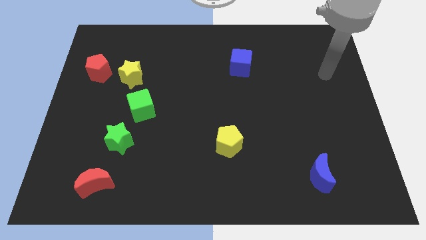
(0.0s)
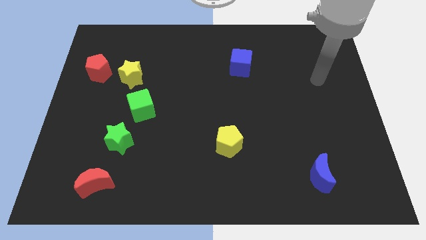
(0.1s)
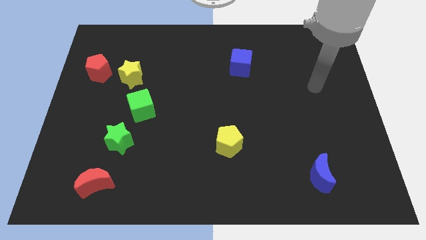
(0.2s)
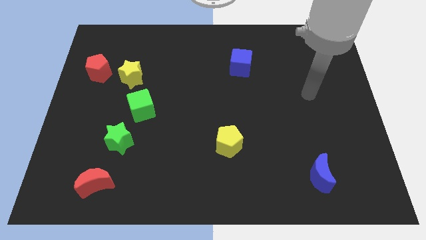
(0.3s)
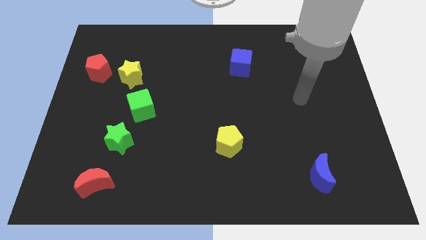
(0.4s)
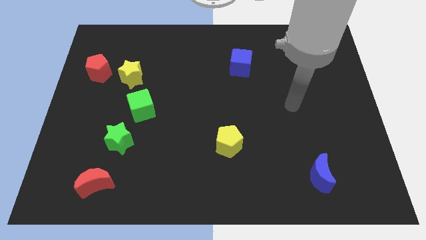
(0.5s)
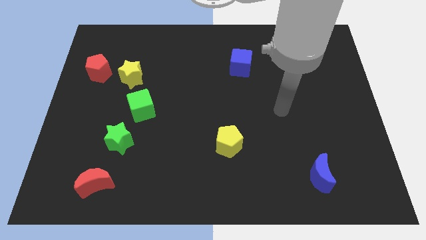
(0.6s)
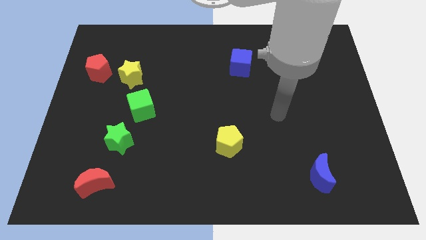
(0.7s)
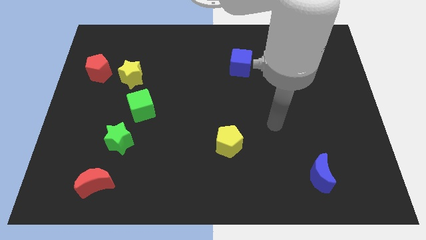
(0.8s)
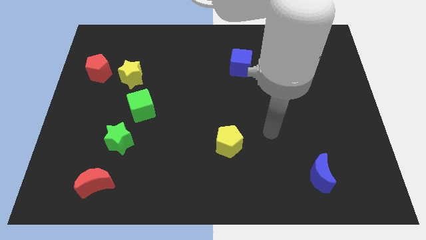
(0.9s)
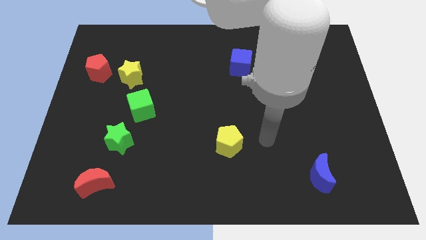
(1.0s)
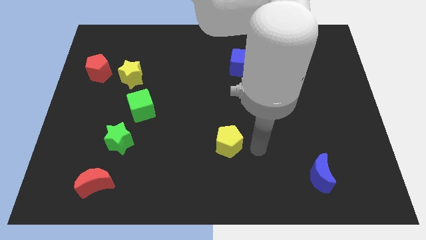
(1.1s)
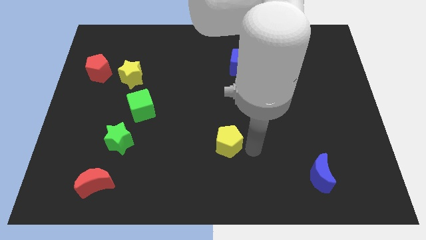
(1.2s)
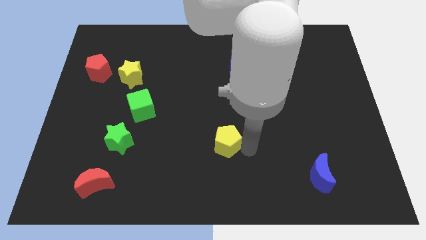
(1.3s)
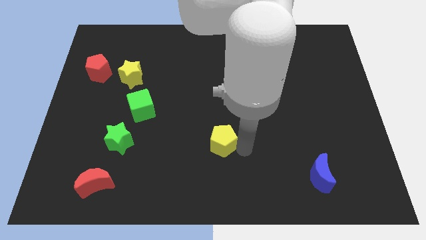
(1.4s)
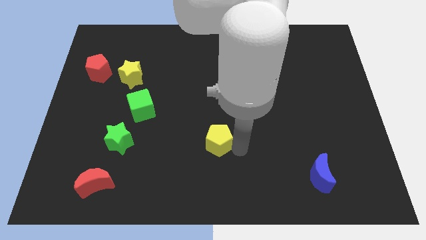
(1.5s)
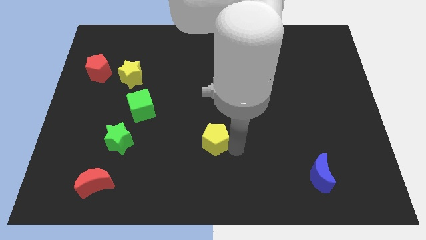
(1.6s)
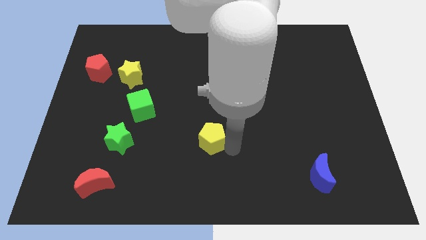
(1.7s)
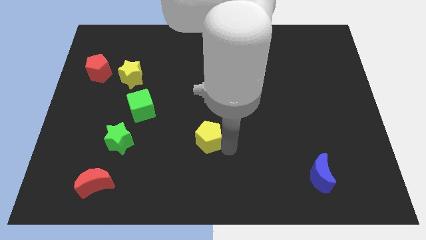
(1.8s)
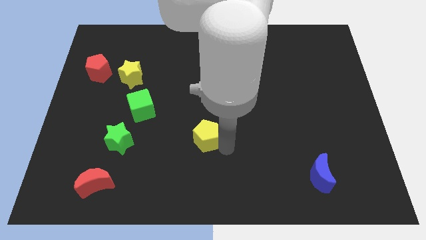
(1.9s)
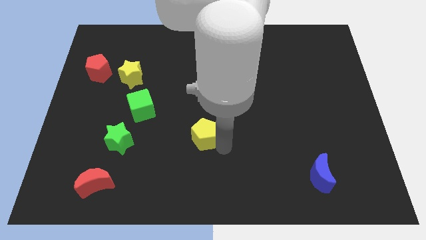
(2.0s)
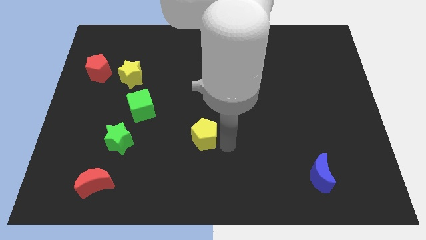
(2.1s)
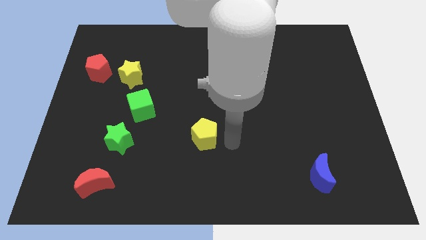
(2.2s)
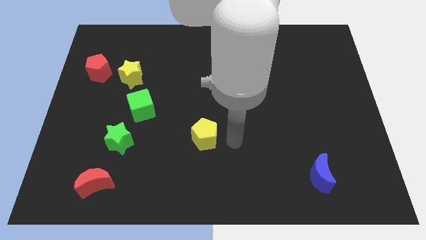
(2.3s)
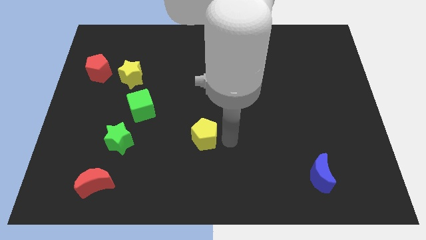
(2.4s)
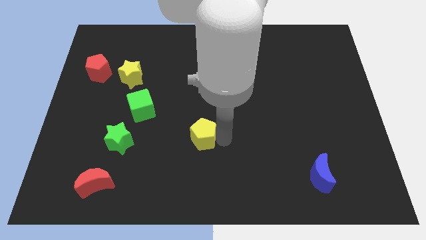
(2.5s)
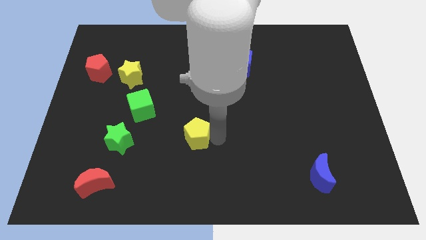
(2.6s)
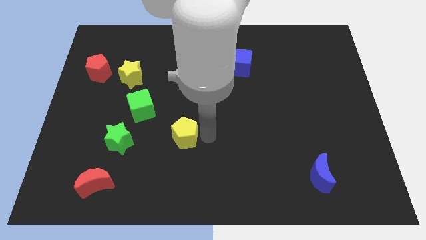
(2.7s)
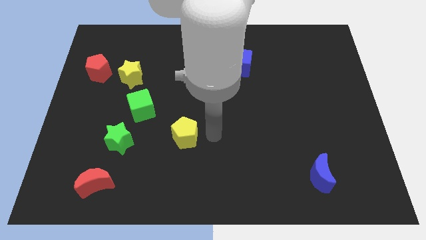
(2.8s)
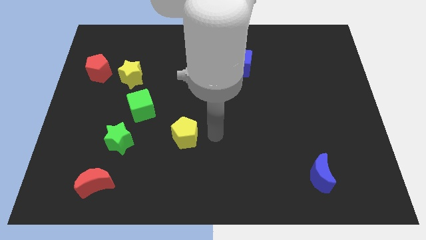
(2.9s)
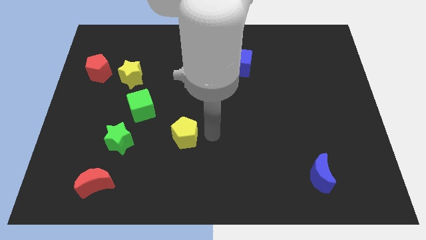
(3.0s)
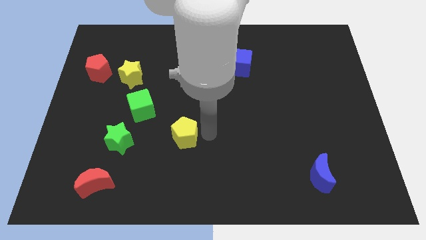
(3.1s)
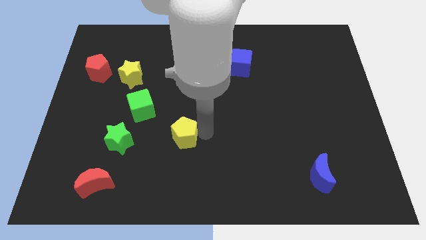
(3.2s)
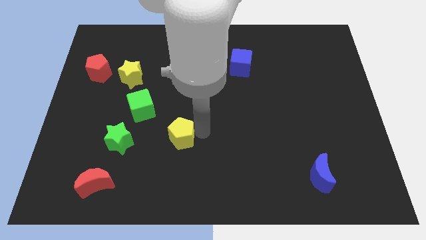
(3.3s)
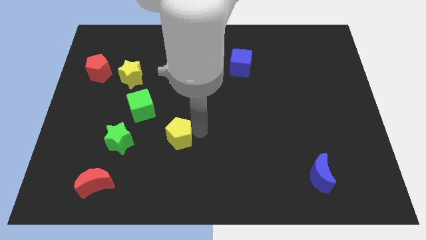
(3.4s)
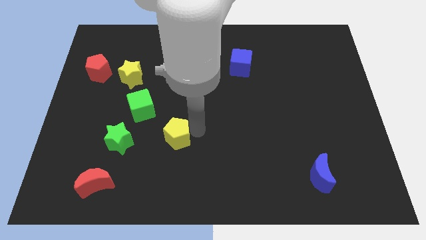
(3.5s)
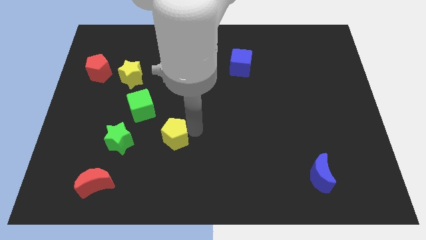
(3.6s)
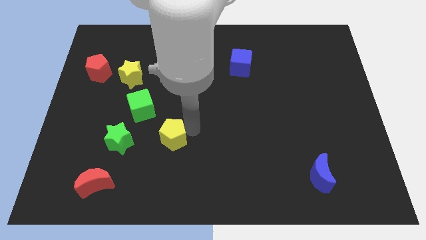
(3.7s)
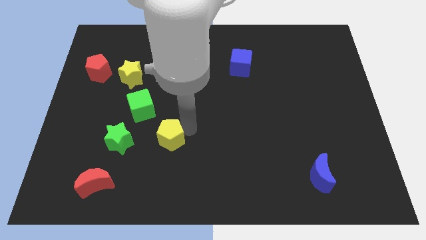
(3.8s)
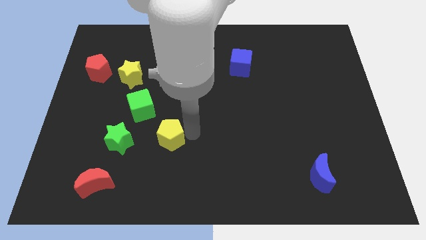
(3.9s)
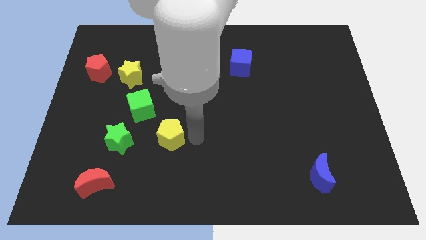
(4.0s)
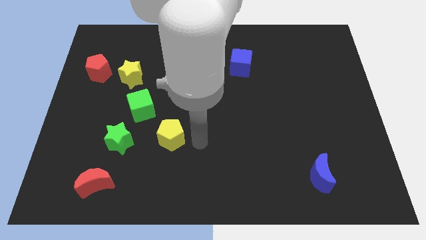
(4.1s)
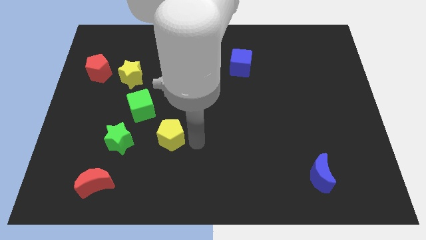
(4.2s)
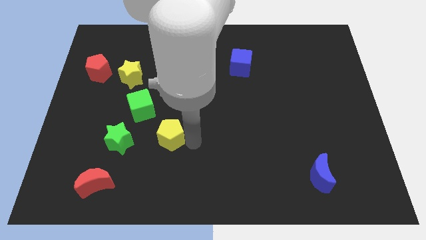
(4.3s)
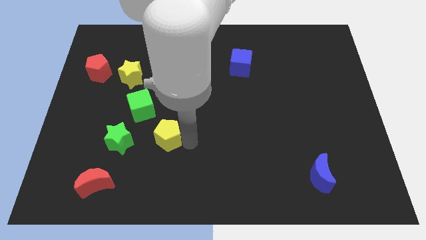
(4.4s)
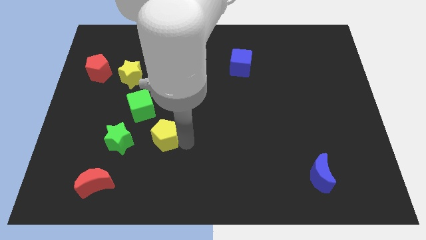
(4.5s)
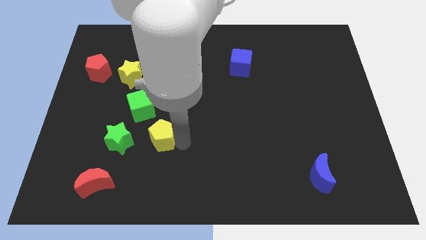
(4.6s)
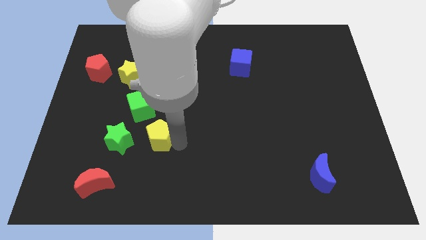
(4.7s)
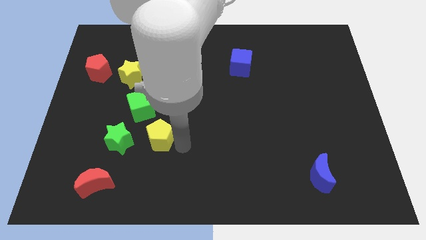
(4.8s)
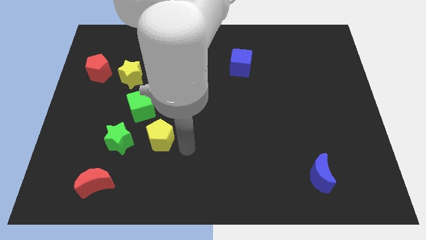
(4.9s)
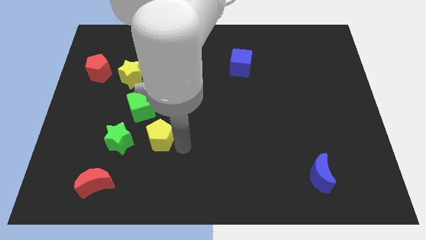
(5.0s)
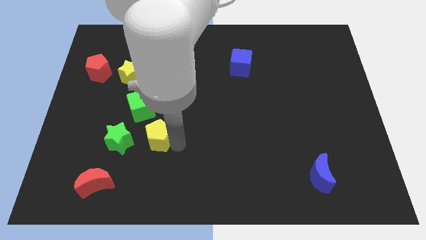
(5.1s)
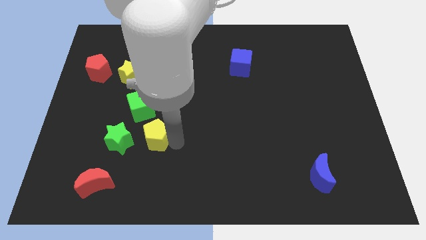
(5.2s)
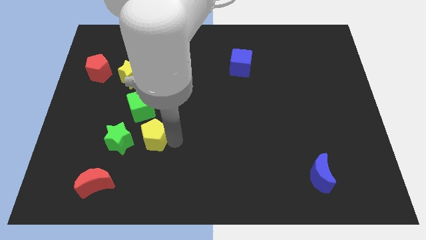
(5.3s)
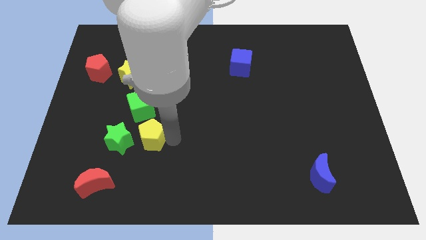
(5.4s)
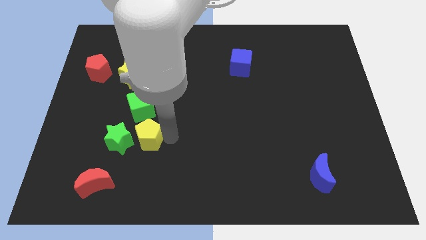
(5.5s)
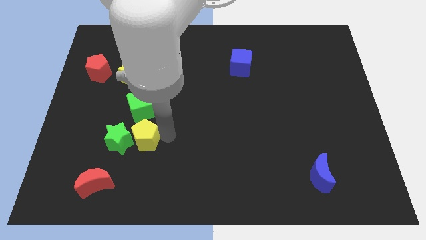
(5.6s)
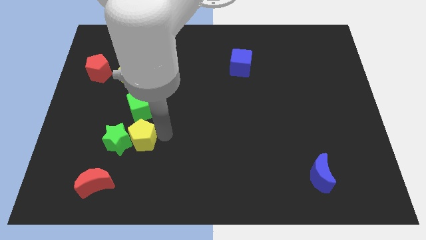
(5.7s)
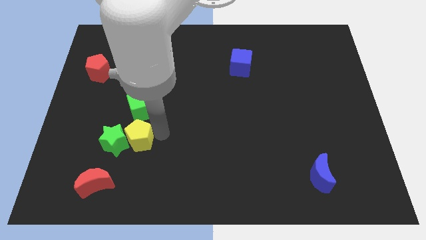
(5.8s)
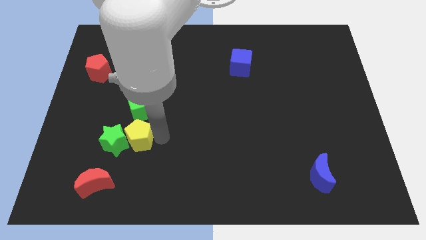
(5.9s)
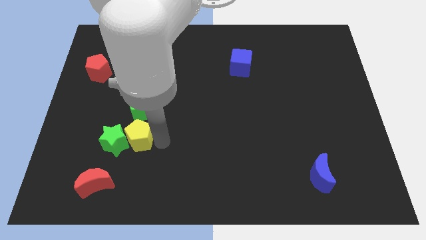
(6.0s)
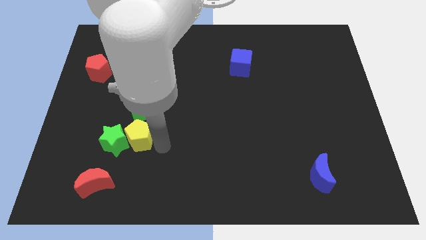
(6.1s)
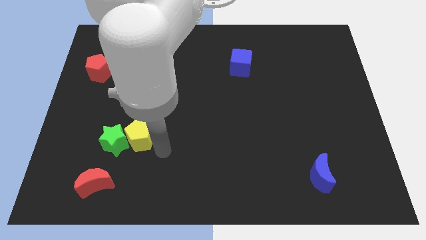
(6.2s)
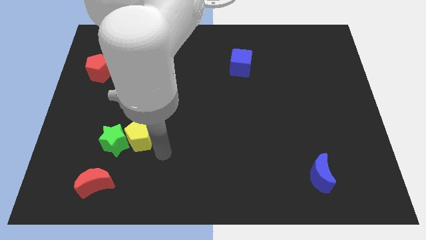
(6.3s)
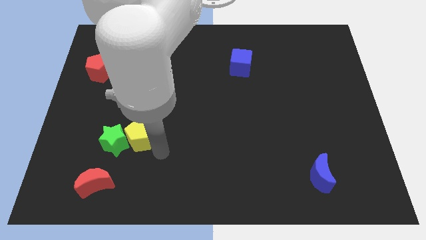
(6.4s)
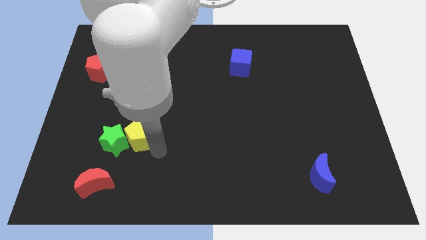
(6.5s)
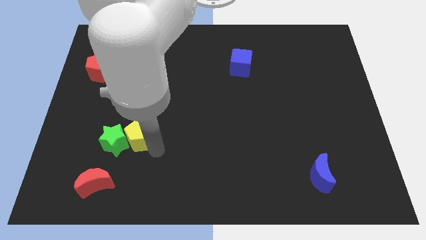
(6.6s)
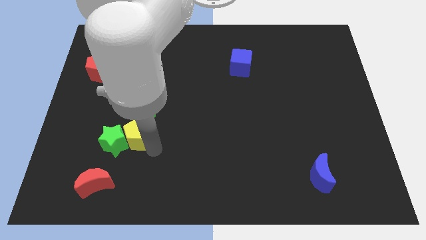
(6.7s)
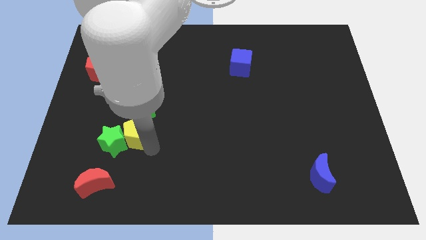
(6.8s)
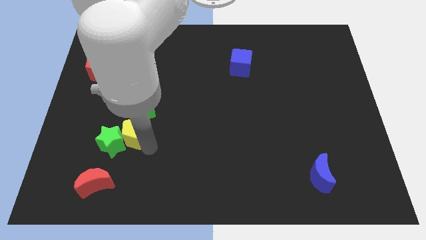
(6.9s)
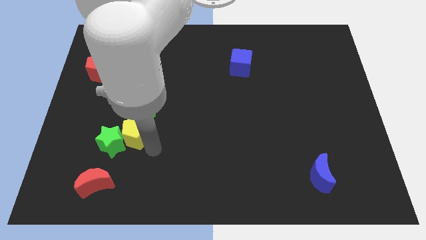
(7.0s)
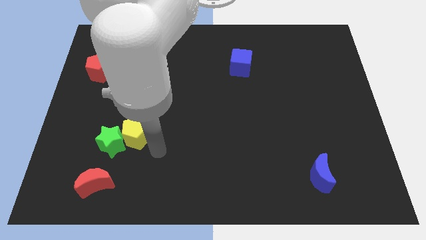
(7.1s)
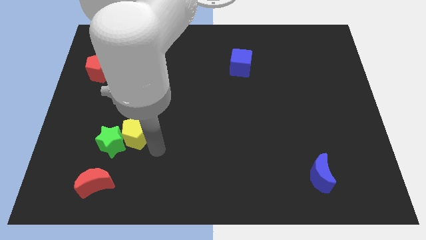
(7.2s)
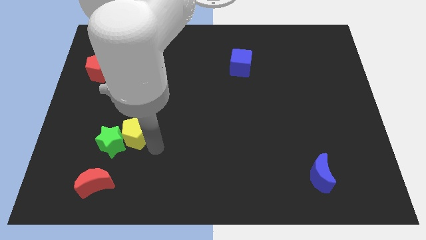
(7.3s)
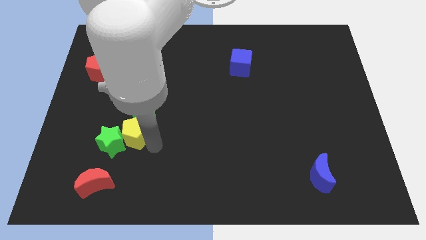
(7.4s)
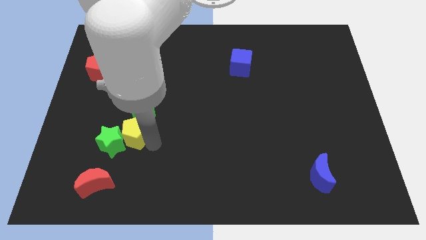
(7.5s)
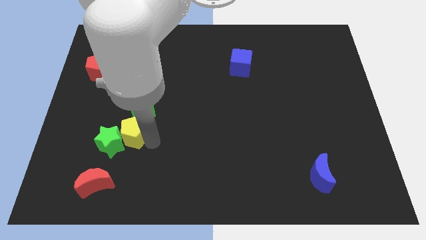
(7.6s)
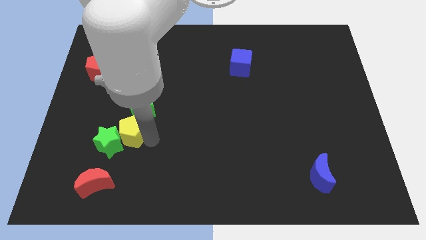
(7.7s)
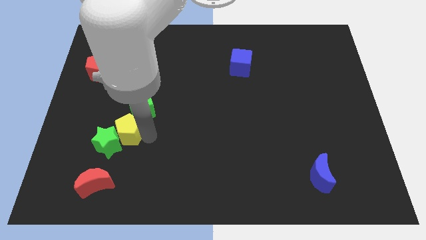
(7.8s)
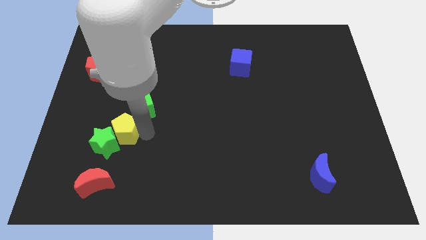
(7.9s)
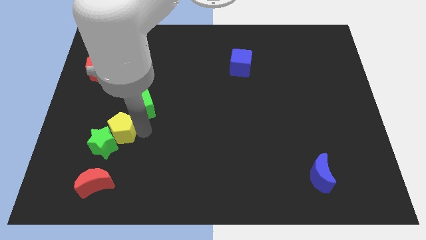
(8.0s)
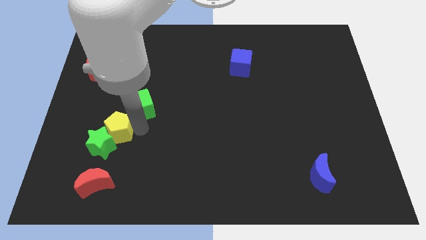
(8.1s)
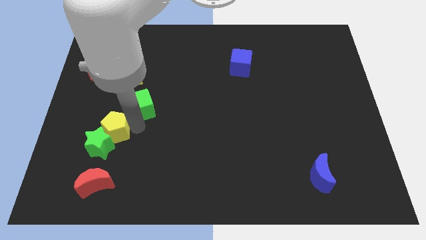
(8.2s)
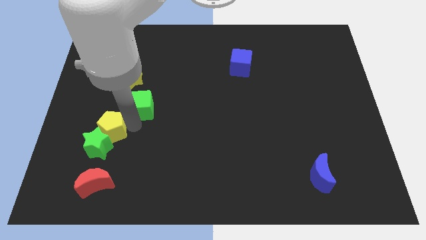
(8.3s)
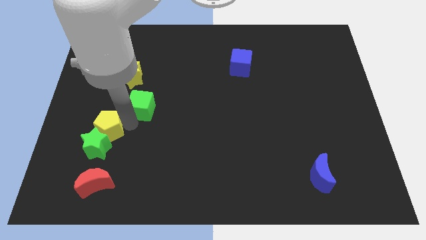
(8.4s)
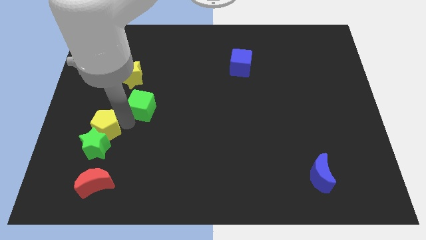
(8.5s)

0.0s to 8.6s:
move the yellow pentagon to the top left of the green star
